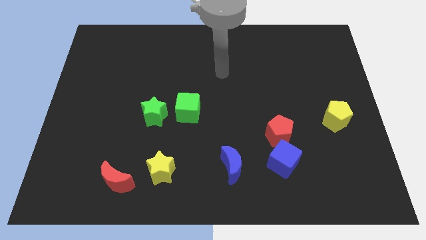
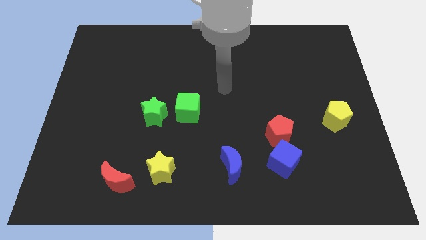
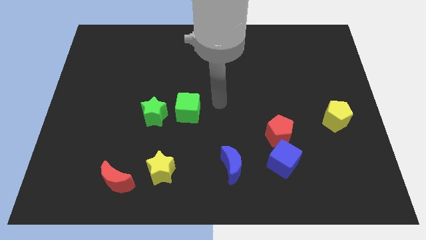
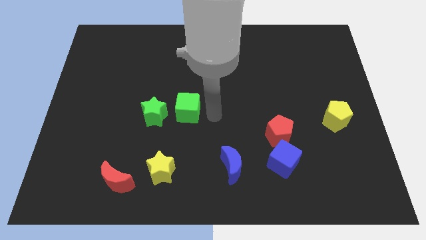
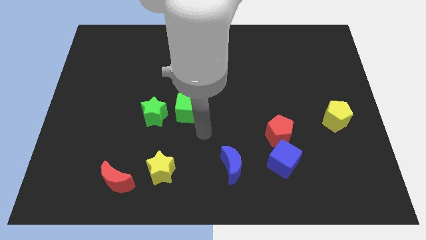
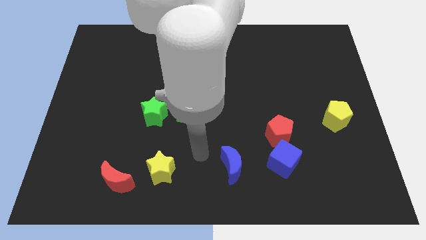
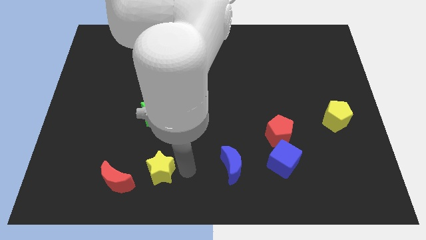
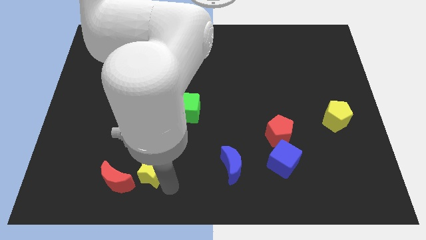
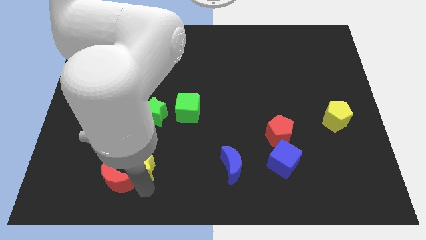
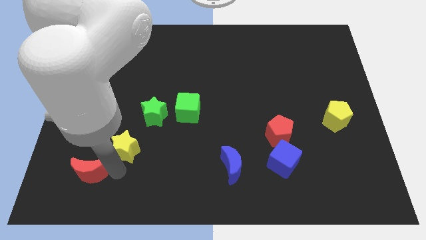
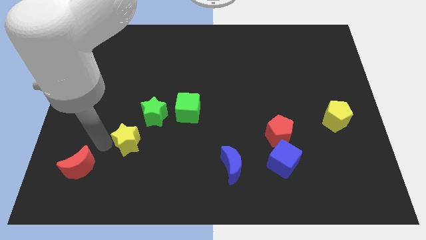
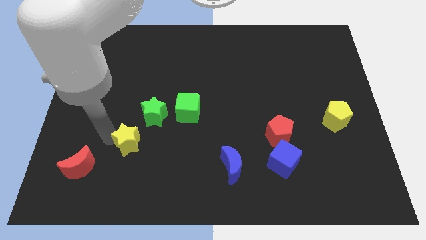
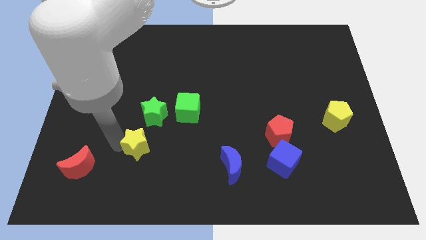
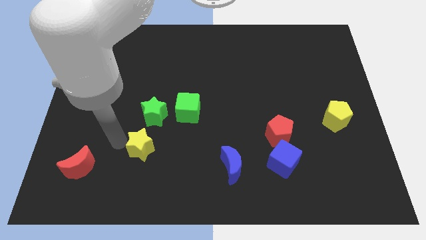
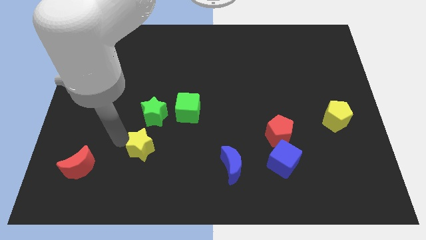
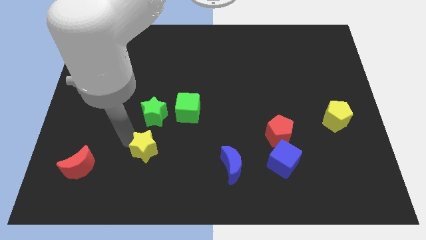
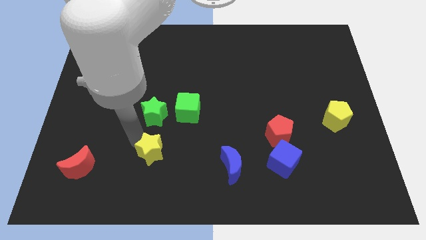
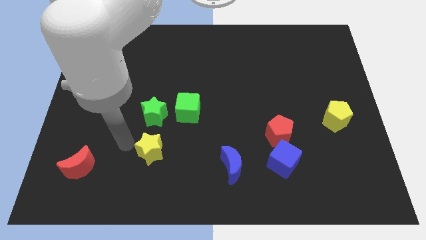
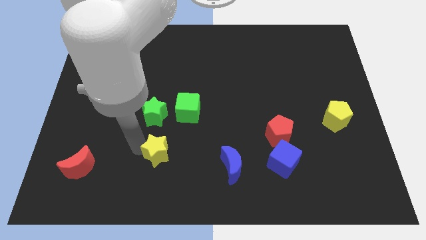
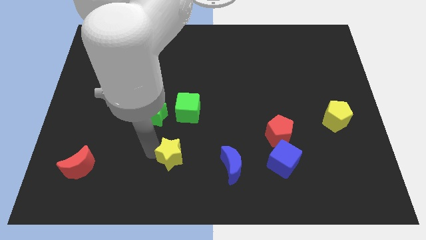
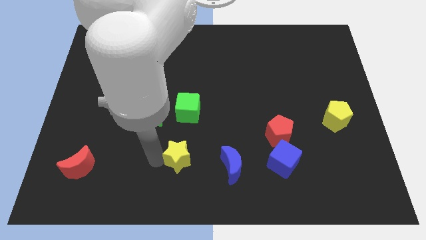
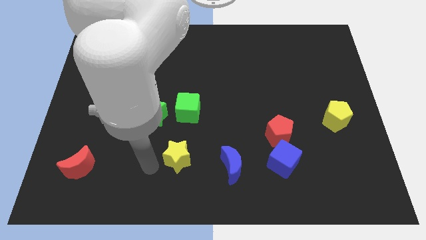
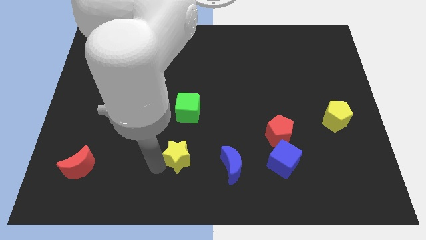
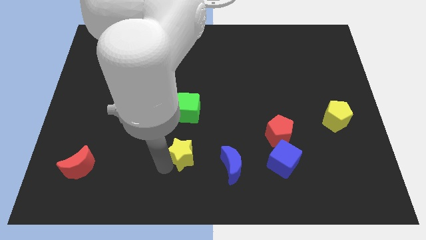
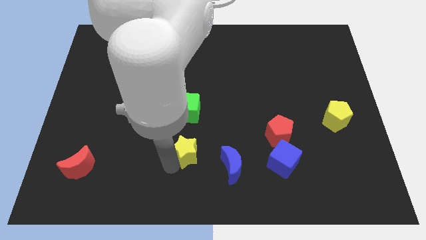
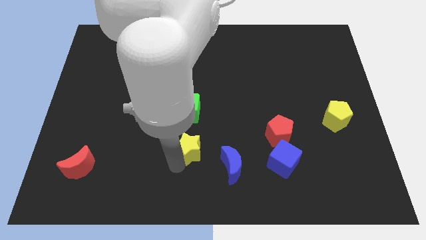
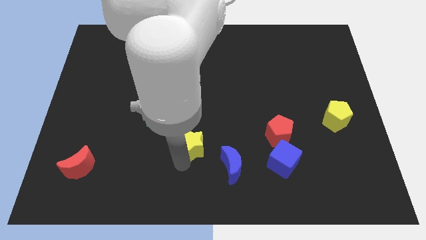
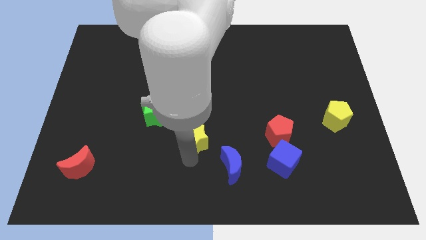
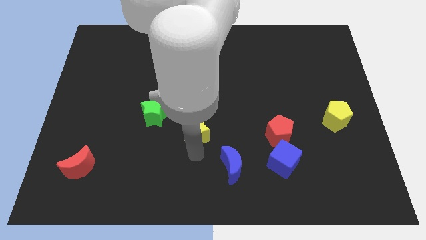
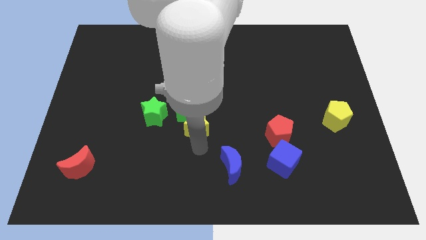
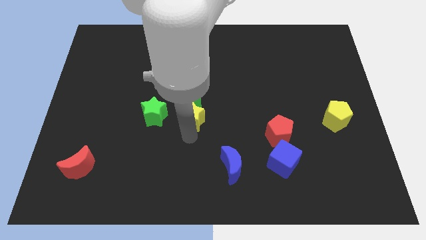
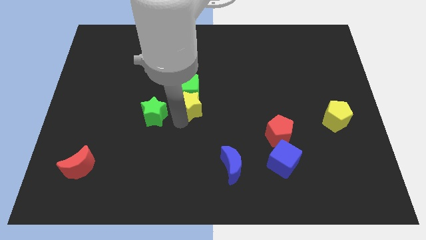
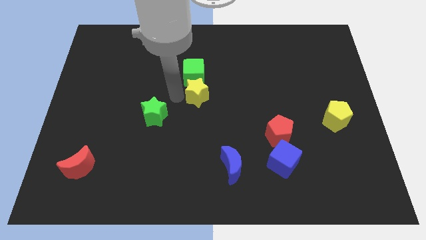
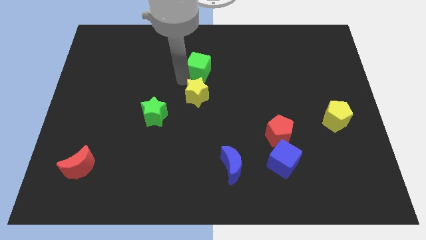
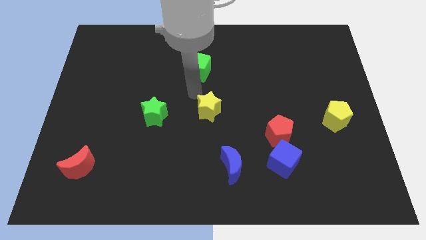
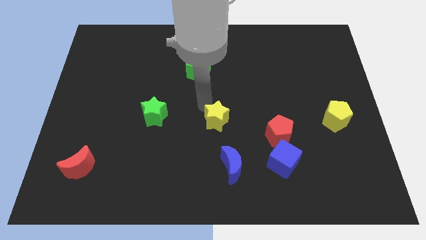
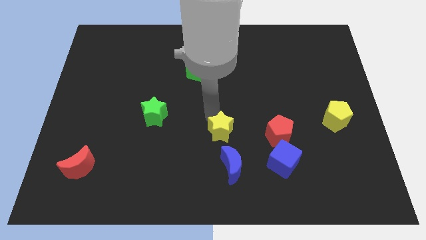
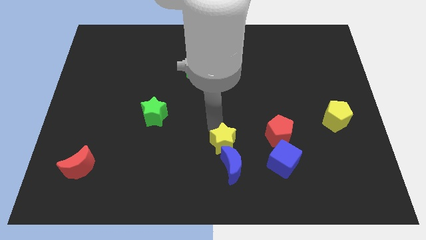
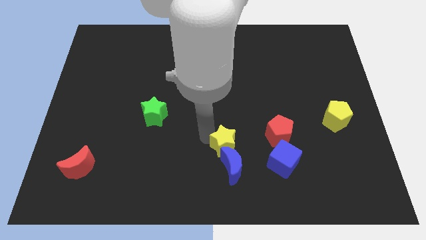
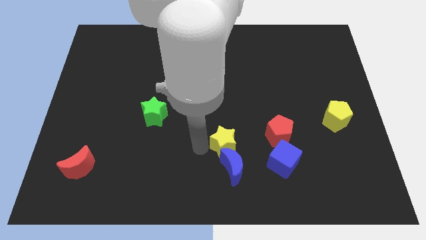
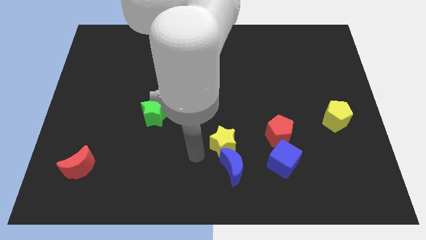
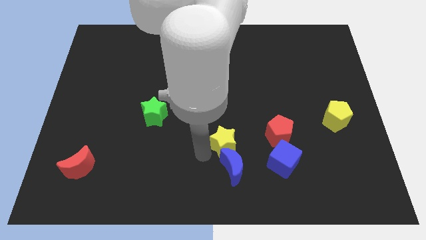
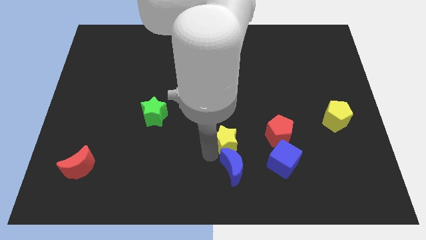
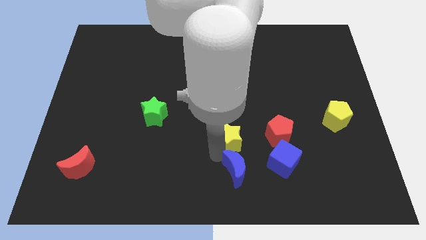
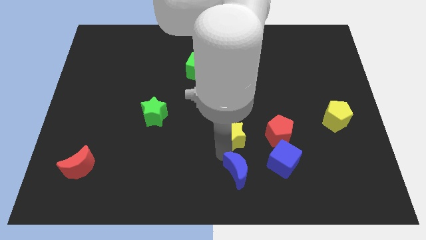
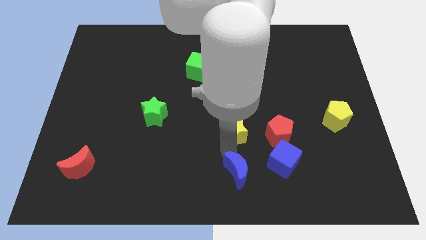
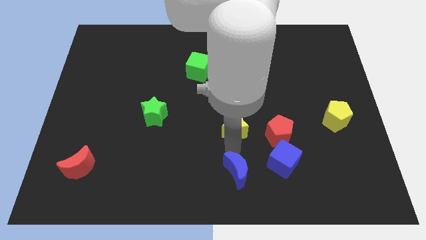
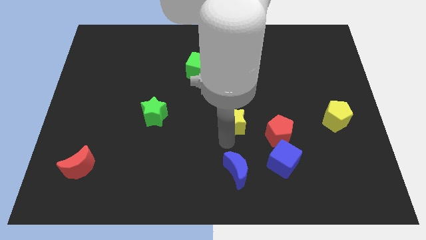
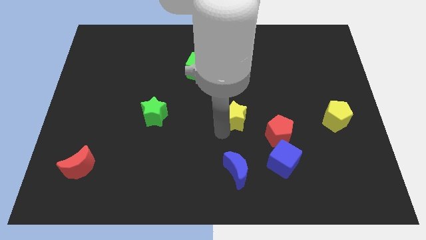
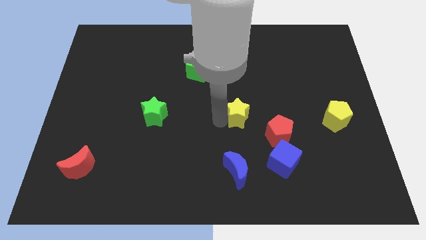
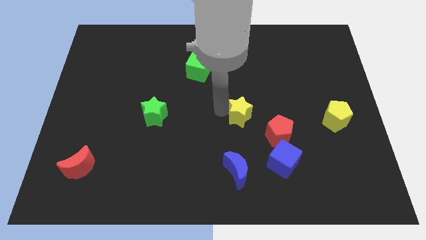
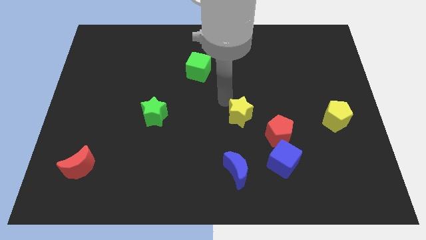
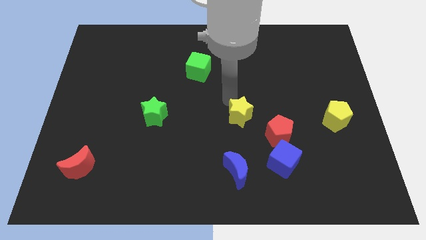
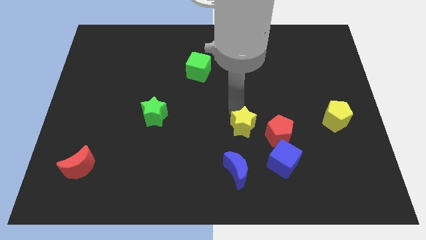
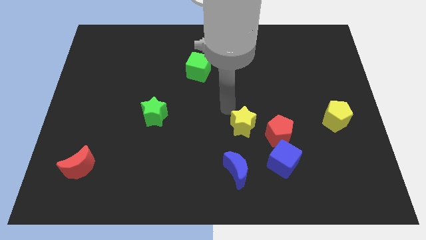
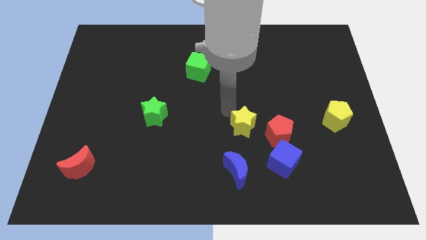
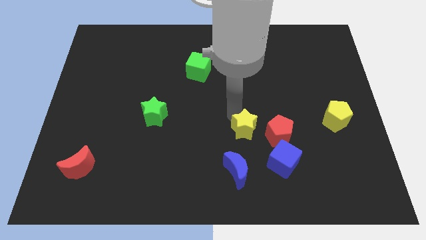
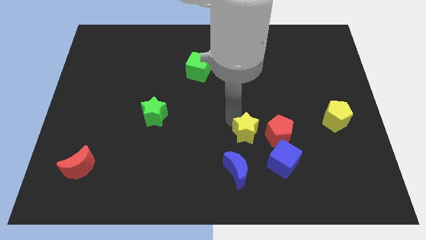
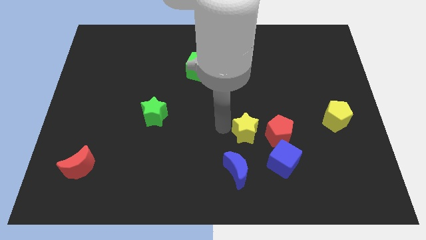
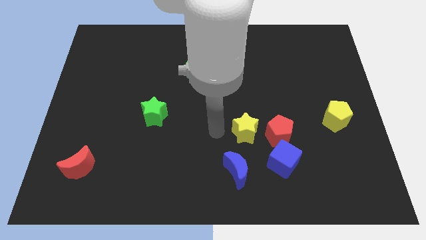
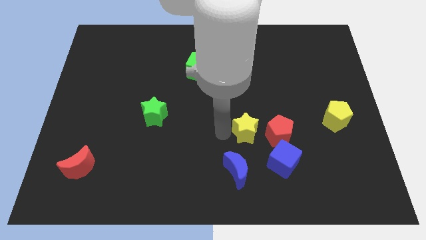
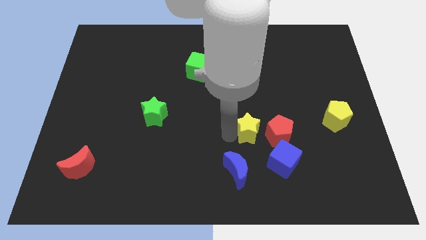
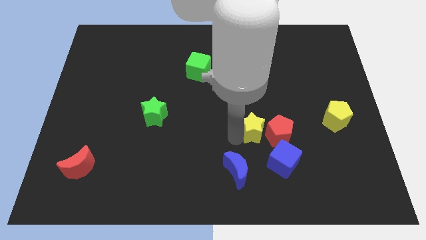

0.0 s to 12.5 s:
put the yellow star next to the red pentagon
